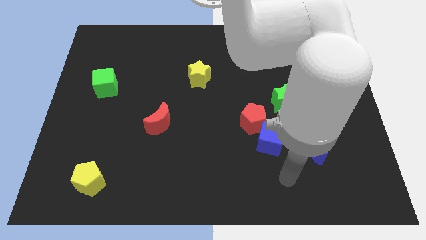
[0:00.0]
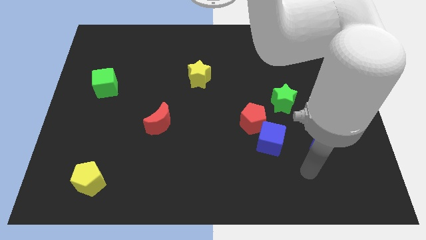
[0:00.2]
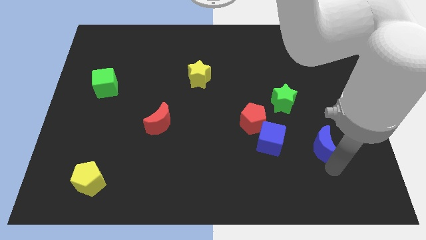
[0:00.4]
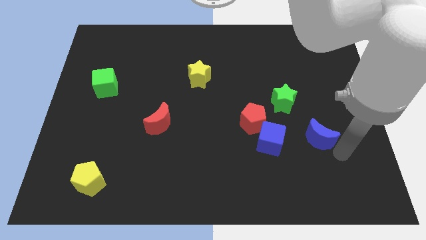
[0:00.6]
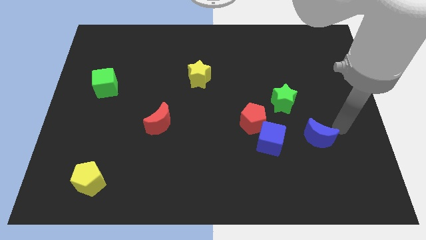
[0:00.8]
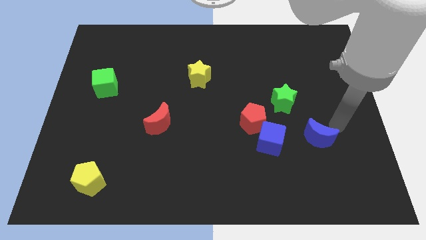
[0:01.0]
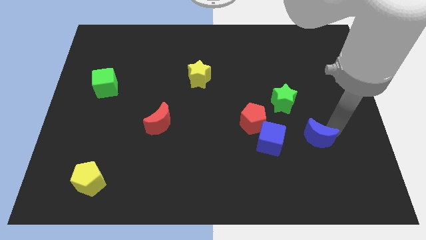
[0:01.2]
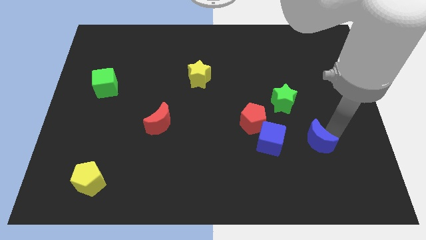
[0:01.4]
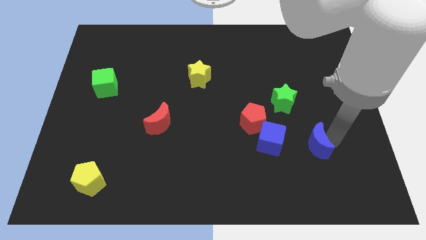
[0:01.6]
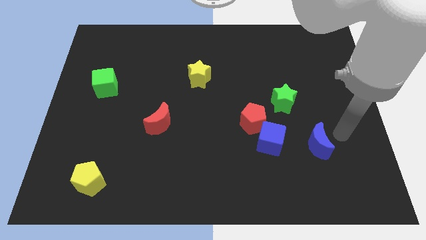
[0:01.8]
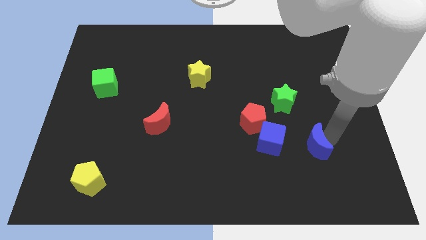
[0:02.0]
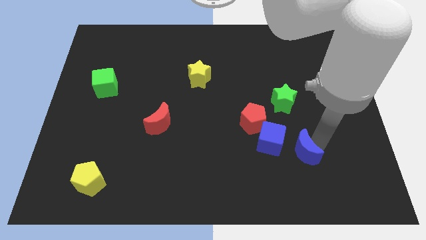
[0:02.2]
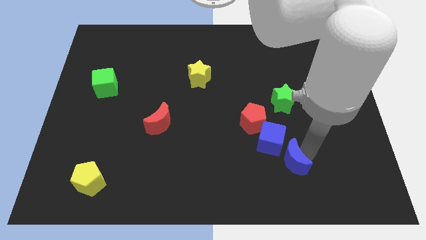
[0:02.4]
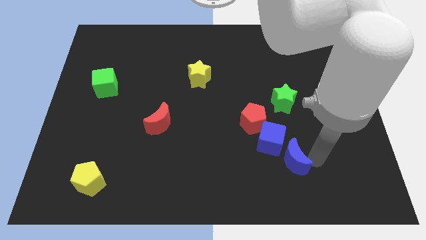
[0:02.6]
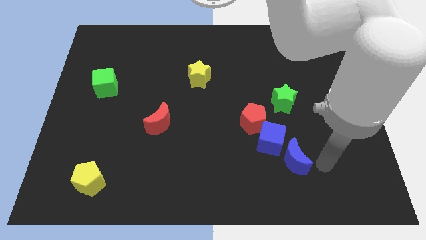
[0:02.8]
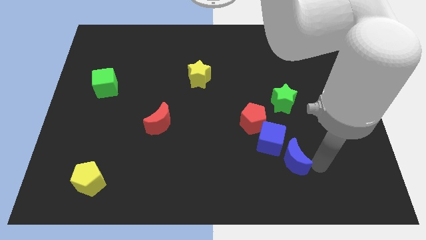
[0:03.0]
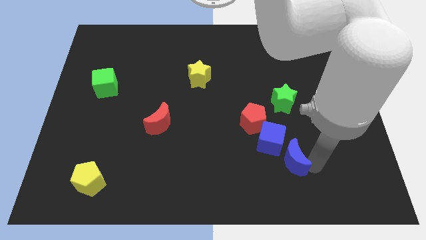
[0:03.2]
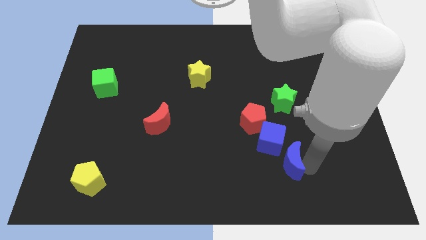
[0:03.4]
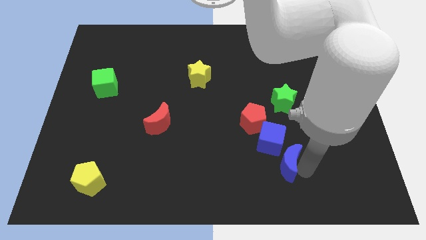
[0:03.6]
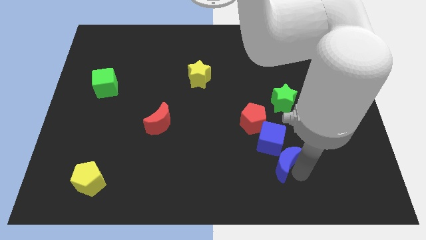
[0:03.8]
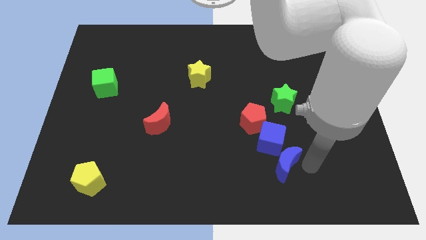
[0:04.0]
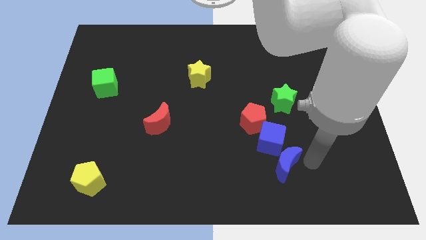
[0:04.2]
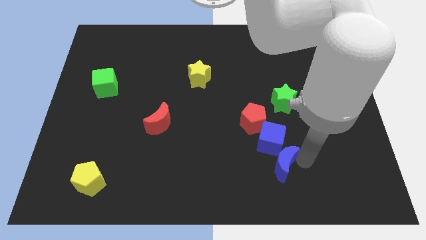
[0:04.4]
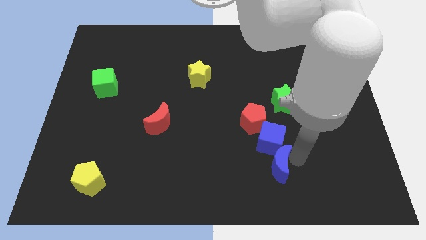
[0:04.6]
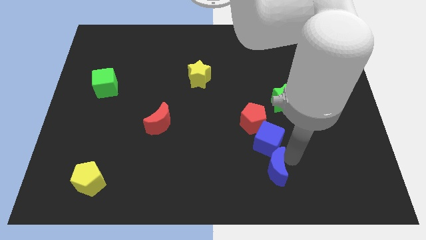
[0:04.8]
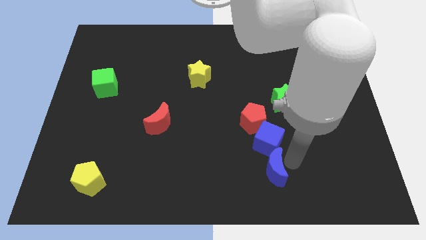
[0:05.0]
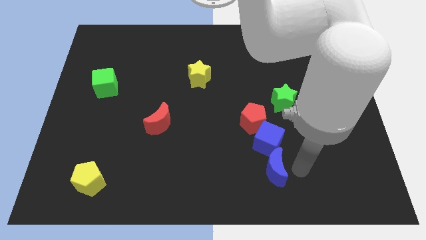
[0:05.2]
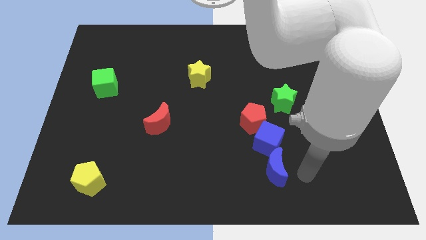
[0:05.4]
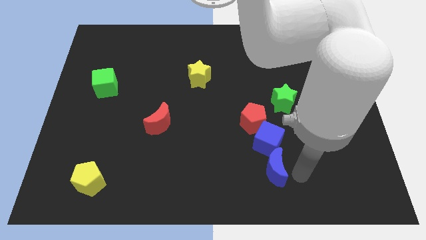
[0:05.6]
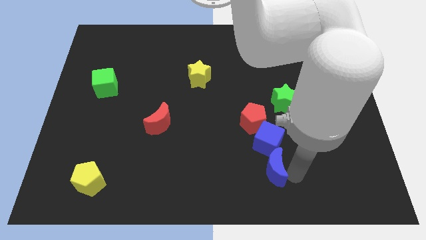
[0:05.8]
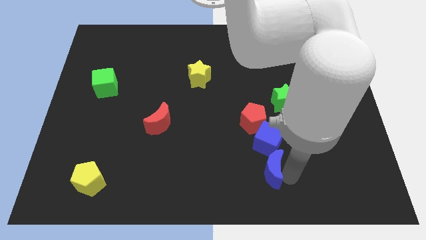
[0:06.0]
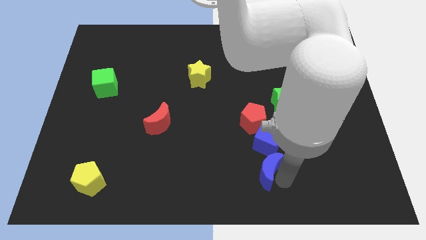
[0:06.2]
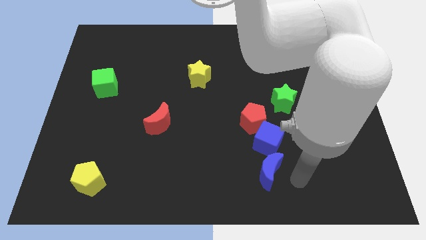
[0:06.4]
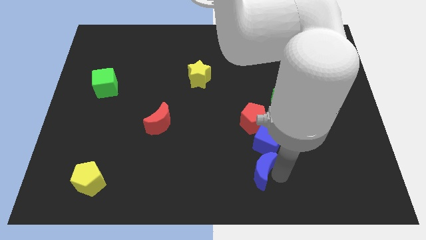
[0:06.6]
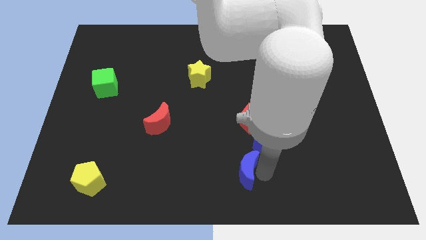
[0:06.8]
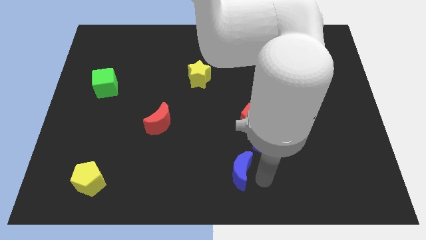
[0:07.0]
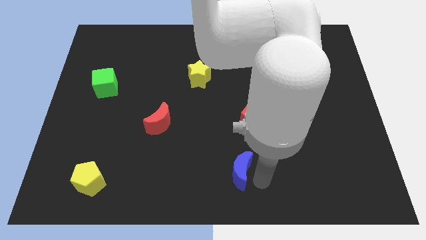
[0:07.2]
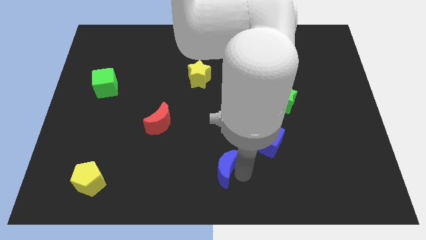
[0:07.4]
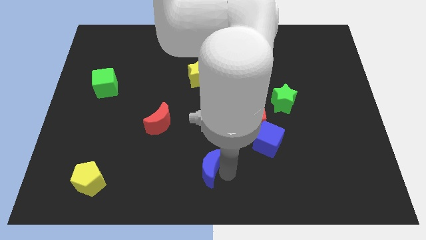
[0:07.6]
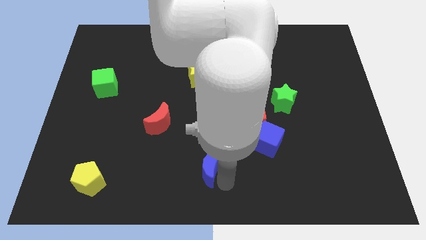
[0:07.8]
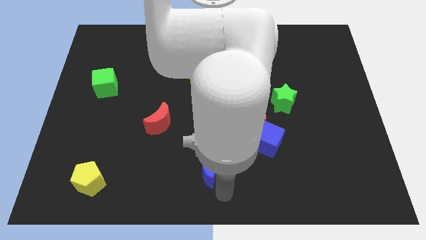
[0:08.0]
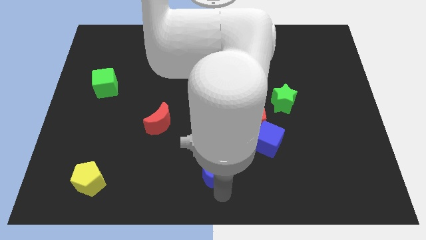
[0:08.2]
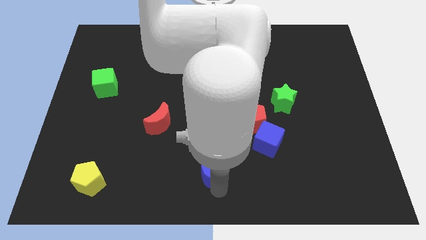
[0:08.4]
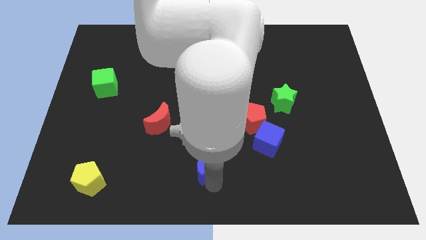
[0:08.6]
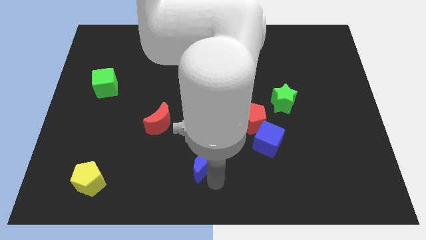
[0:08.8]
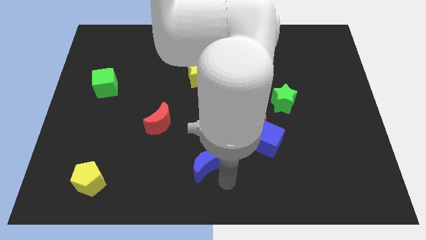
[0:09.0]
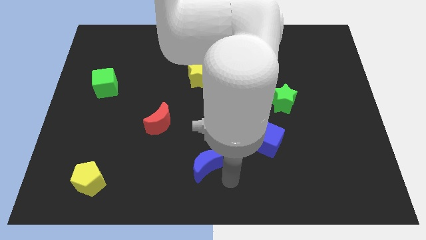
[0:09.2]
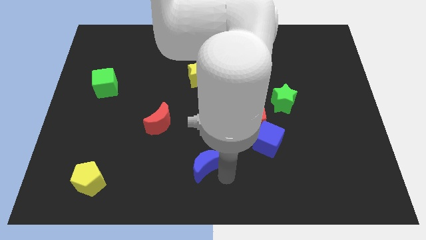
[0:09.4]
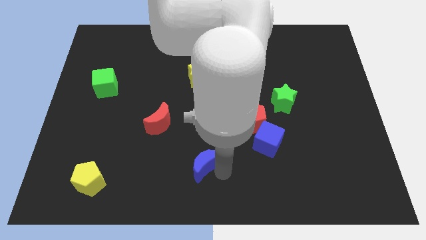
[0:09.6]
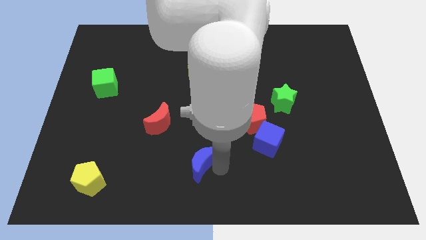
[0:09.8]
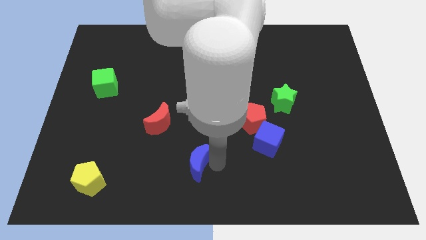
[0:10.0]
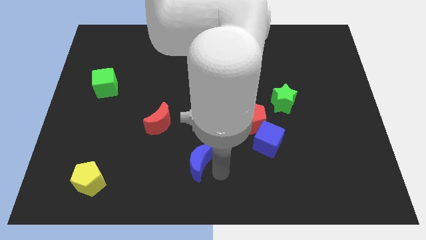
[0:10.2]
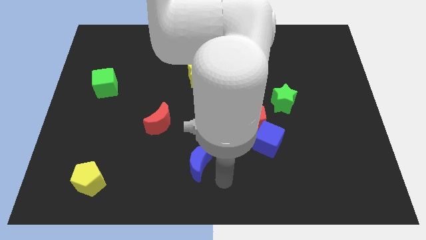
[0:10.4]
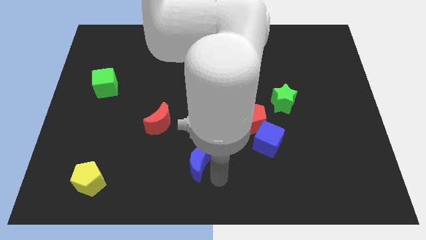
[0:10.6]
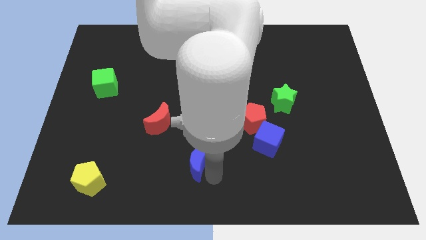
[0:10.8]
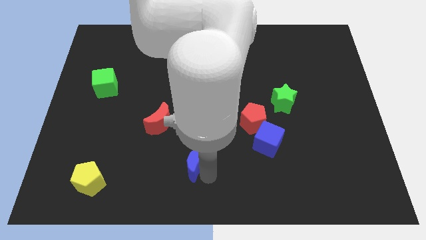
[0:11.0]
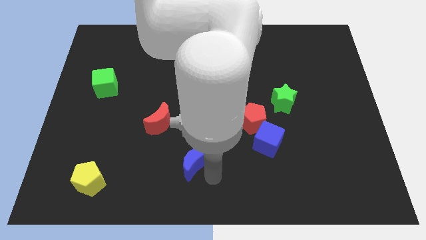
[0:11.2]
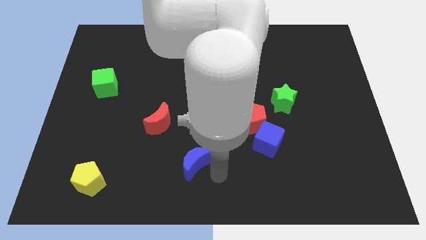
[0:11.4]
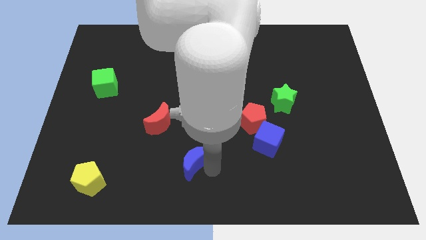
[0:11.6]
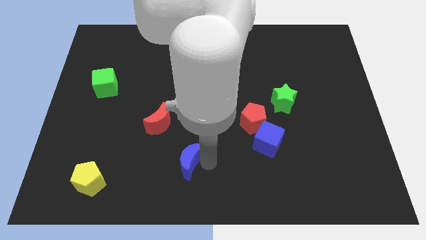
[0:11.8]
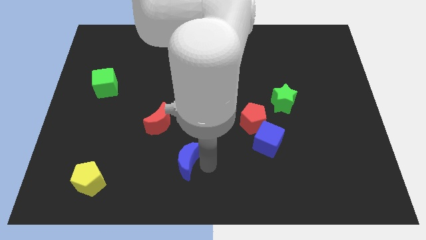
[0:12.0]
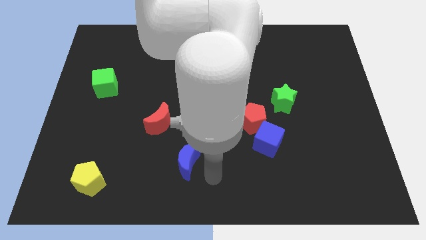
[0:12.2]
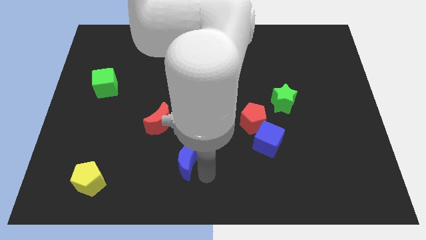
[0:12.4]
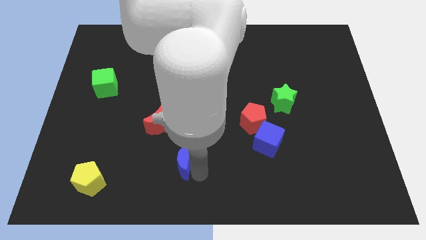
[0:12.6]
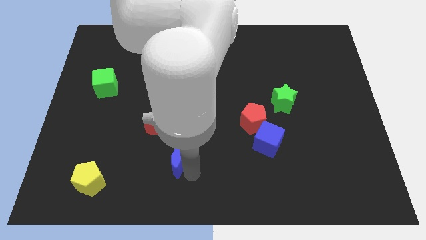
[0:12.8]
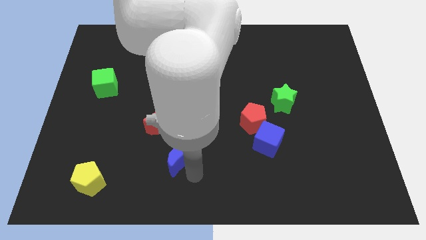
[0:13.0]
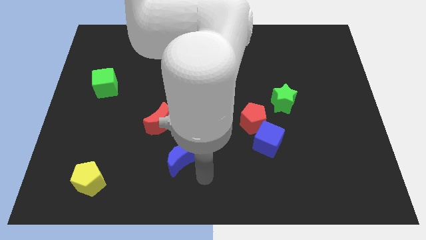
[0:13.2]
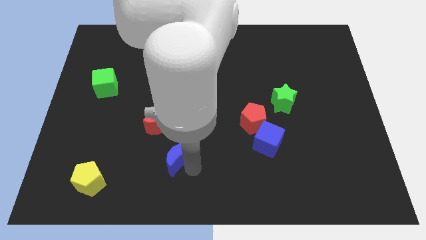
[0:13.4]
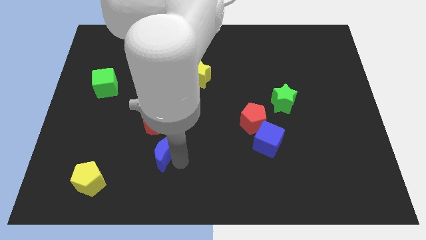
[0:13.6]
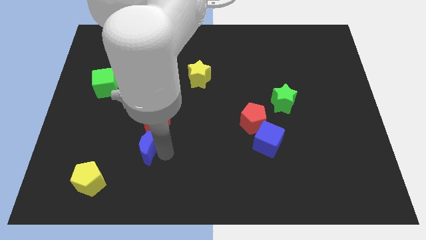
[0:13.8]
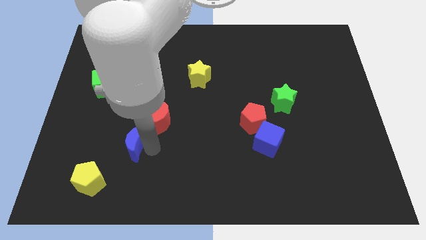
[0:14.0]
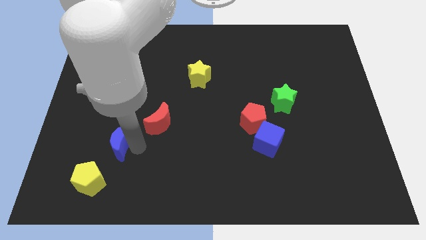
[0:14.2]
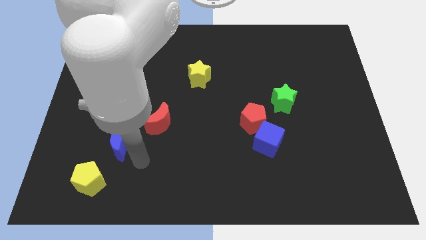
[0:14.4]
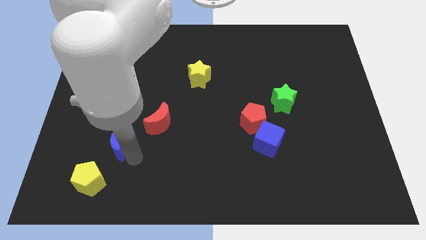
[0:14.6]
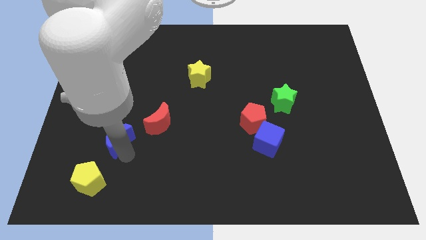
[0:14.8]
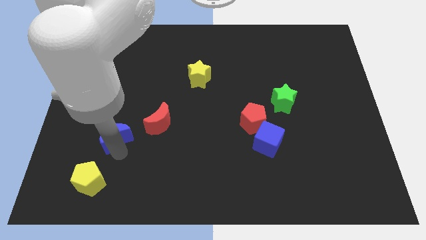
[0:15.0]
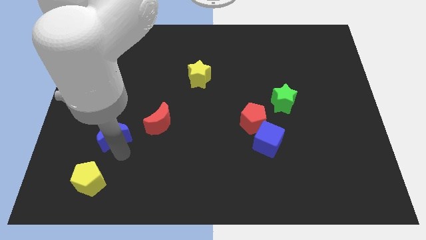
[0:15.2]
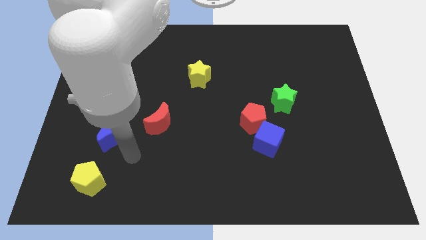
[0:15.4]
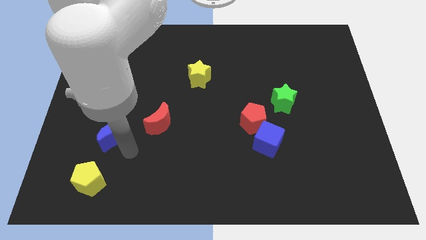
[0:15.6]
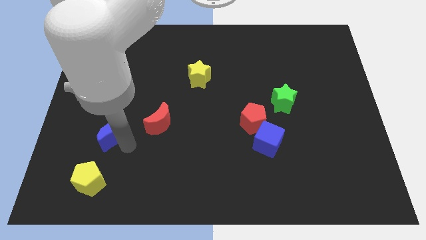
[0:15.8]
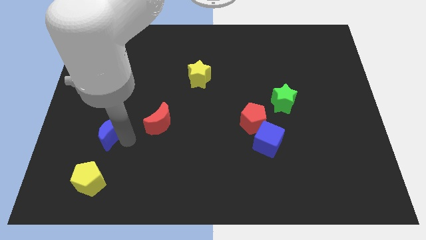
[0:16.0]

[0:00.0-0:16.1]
push the blue moon to the bottom of the green cube
